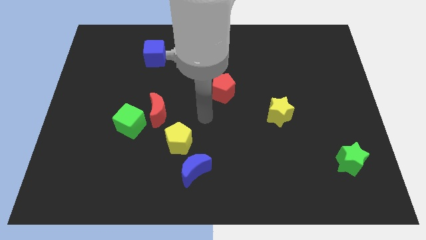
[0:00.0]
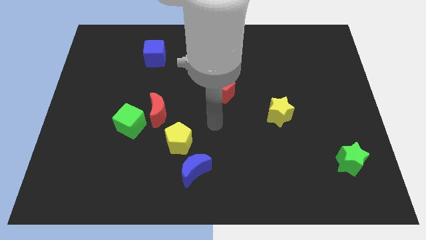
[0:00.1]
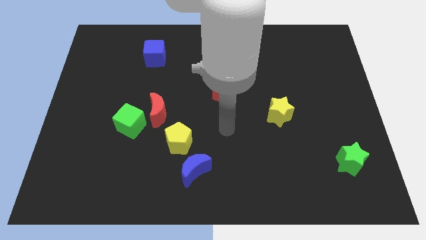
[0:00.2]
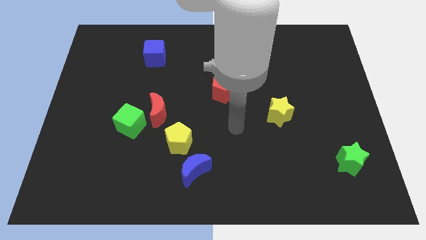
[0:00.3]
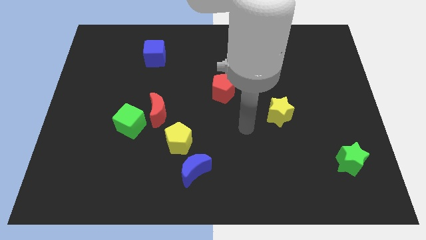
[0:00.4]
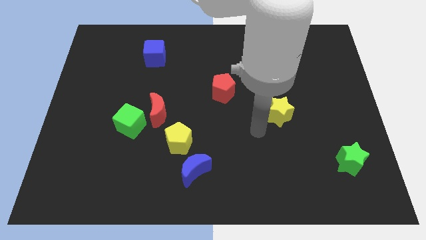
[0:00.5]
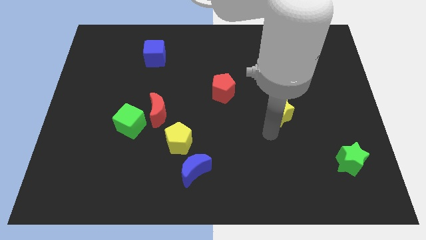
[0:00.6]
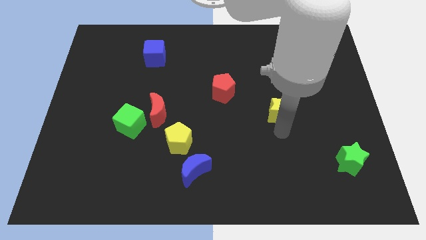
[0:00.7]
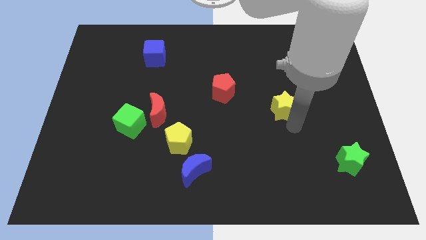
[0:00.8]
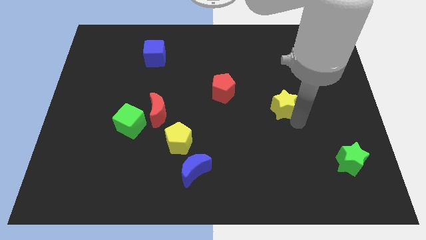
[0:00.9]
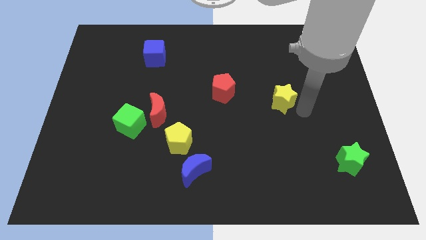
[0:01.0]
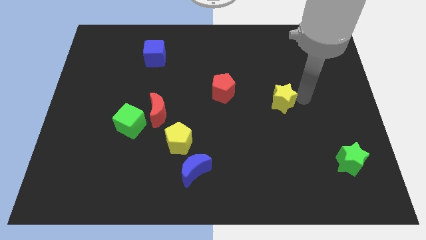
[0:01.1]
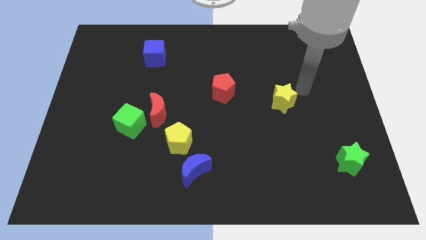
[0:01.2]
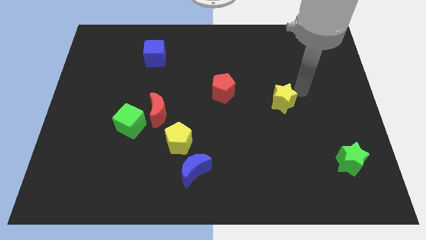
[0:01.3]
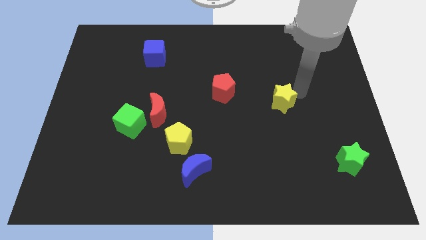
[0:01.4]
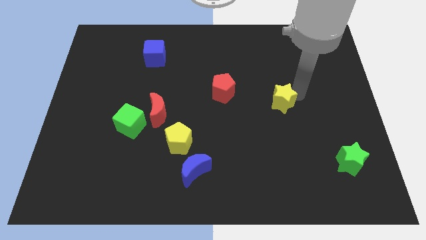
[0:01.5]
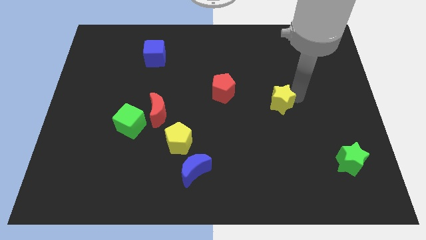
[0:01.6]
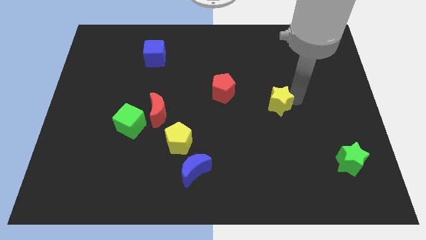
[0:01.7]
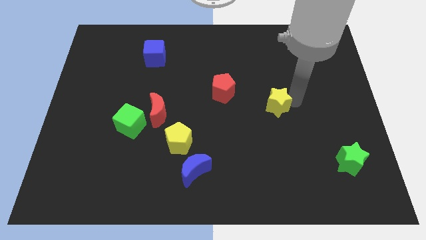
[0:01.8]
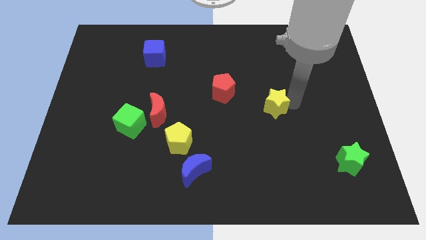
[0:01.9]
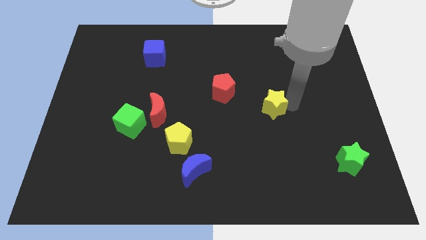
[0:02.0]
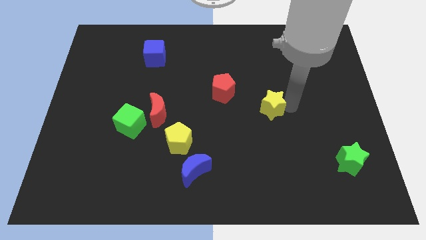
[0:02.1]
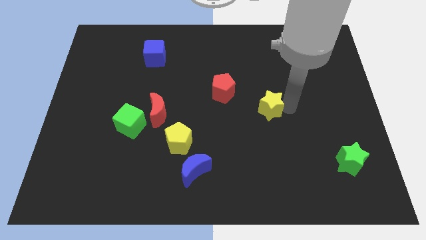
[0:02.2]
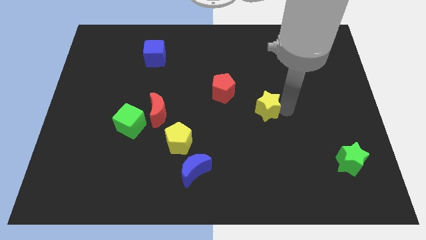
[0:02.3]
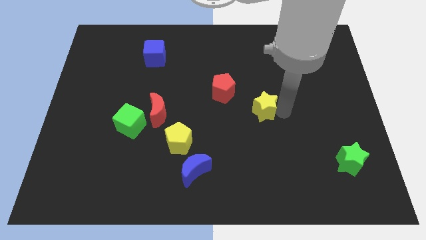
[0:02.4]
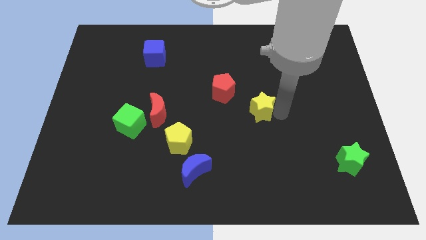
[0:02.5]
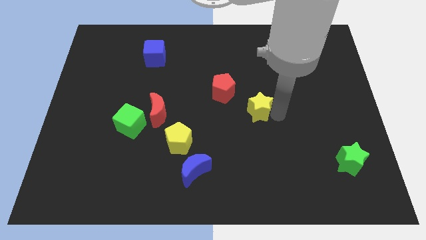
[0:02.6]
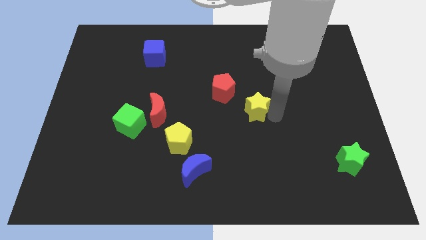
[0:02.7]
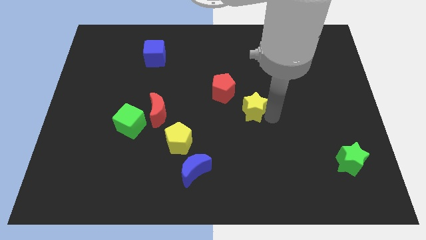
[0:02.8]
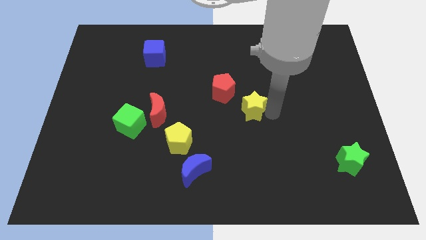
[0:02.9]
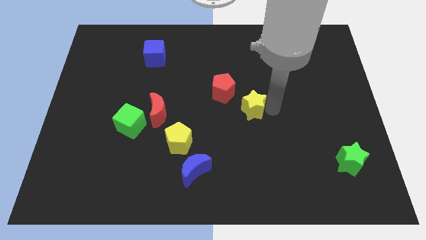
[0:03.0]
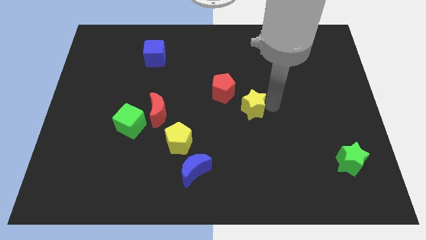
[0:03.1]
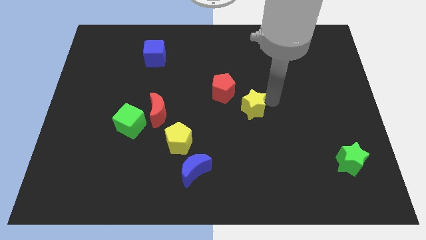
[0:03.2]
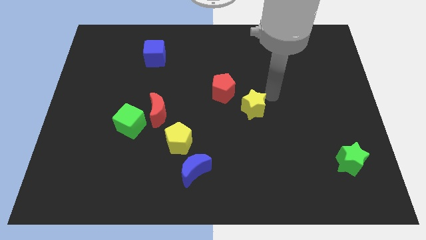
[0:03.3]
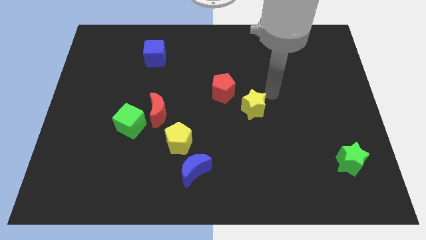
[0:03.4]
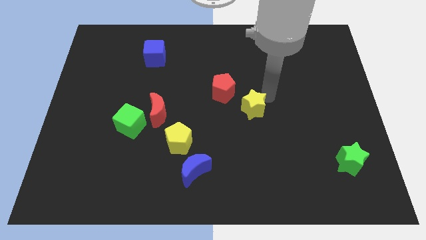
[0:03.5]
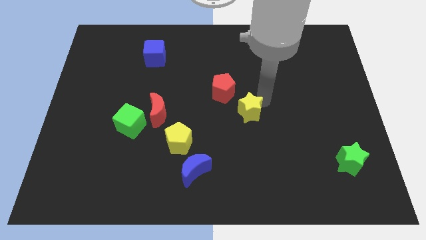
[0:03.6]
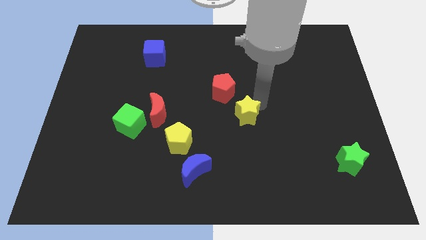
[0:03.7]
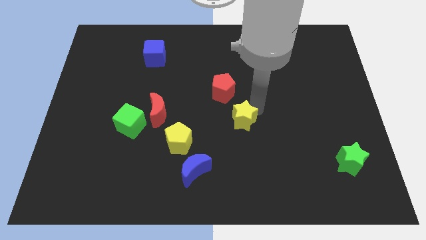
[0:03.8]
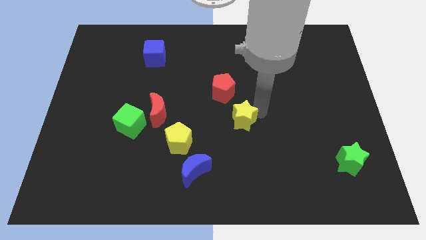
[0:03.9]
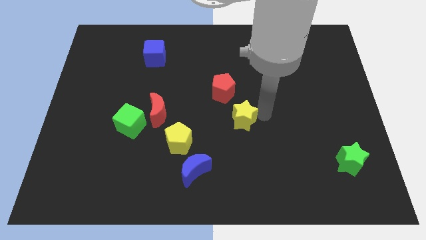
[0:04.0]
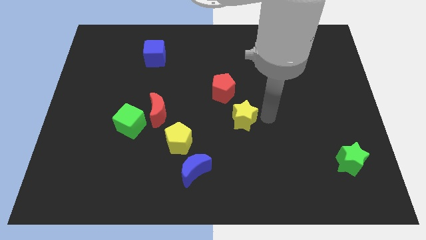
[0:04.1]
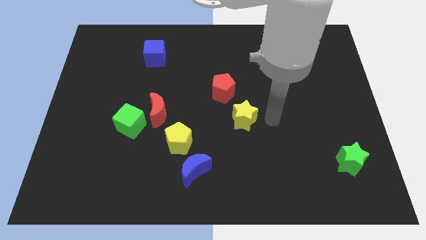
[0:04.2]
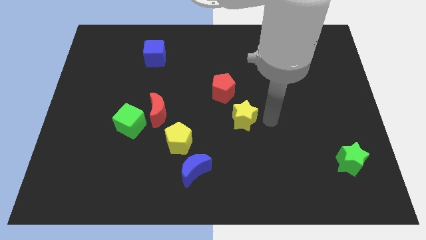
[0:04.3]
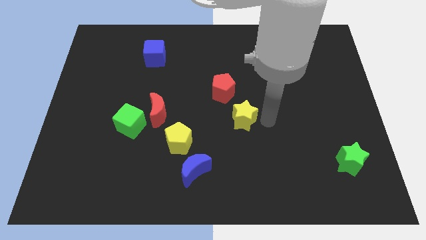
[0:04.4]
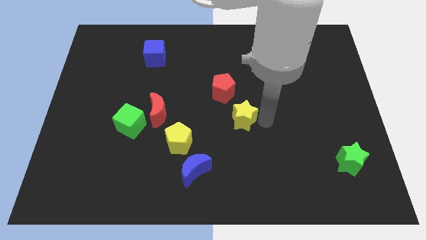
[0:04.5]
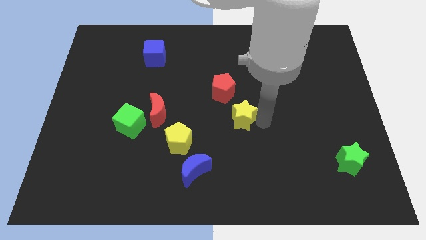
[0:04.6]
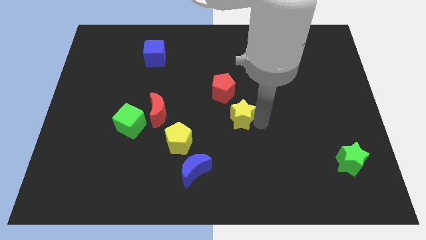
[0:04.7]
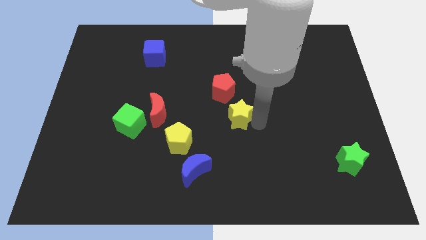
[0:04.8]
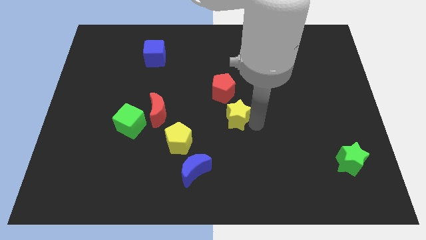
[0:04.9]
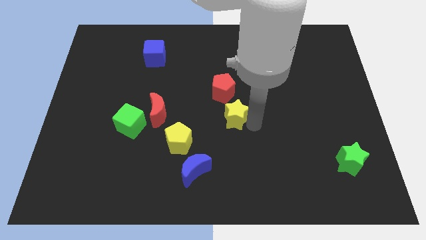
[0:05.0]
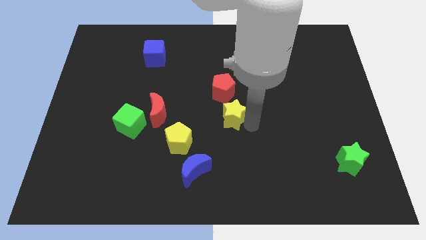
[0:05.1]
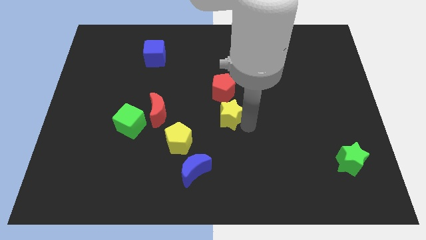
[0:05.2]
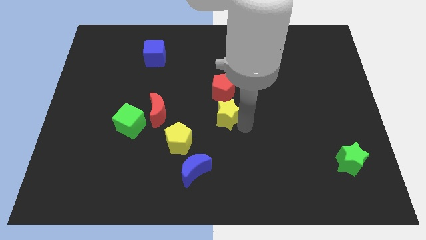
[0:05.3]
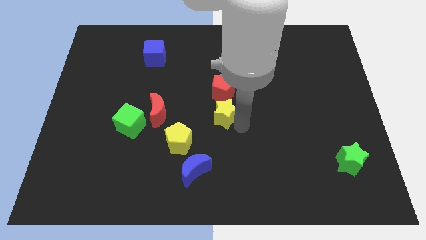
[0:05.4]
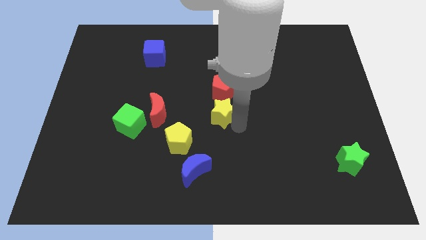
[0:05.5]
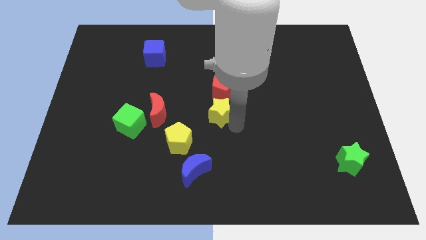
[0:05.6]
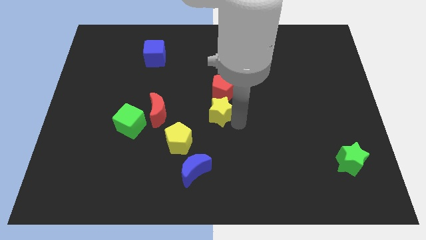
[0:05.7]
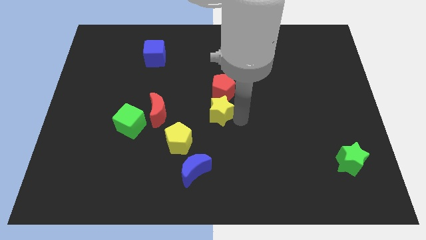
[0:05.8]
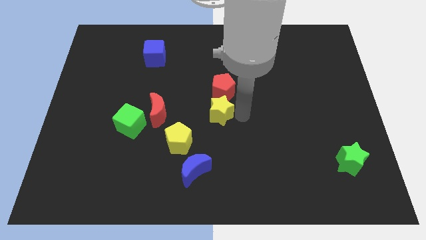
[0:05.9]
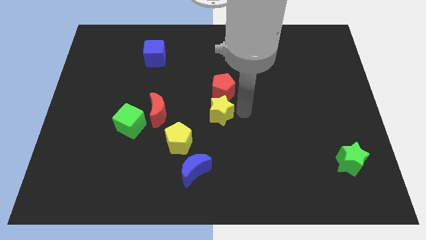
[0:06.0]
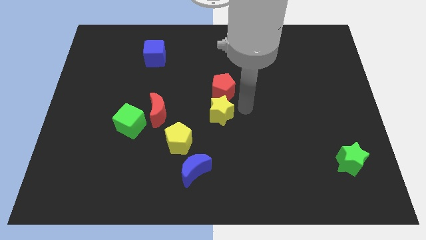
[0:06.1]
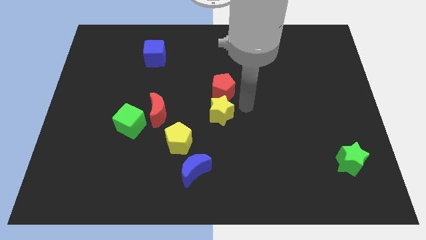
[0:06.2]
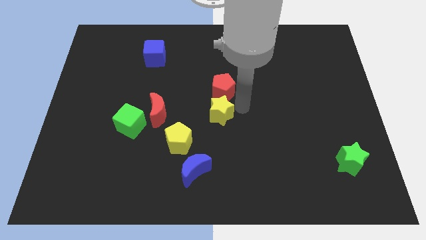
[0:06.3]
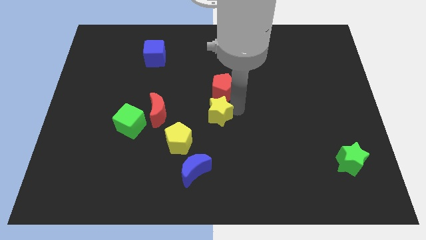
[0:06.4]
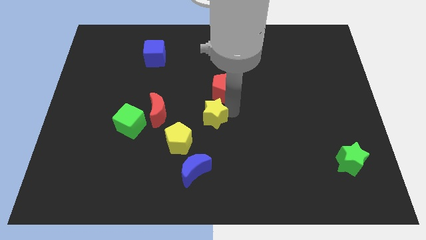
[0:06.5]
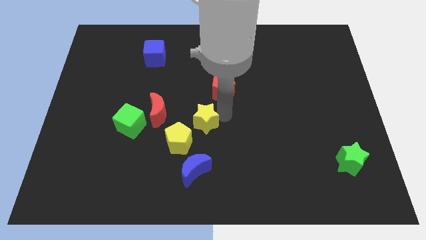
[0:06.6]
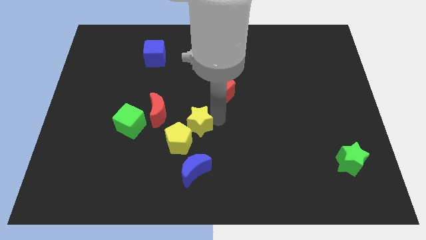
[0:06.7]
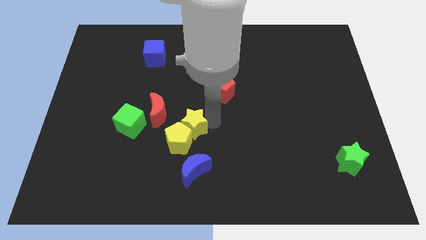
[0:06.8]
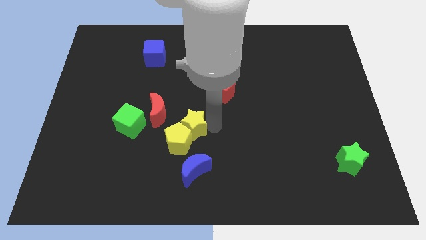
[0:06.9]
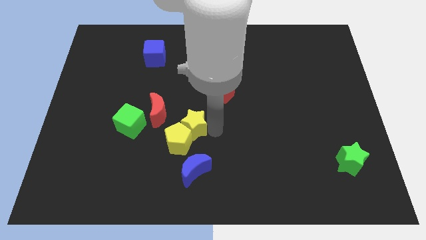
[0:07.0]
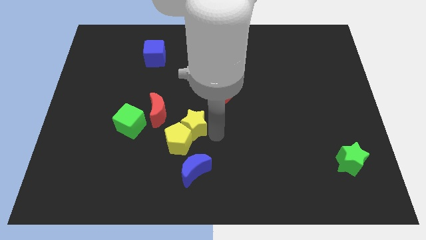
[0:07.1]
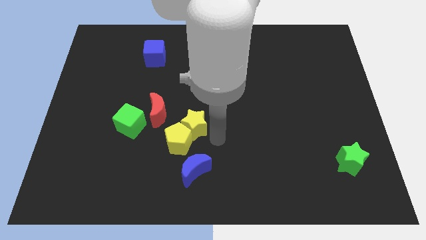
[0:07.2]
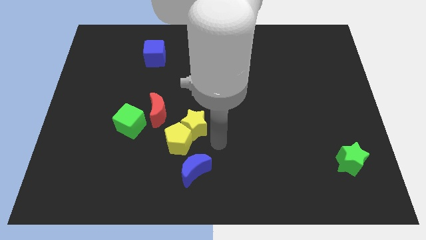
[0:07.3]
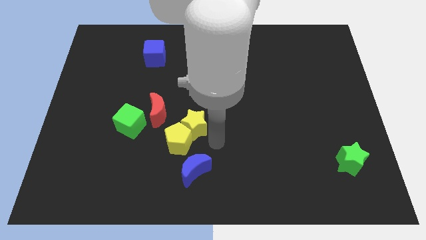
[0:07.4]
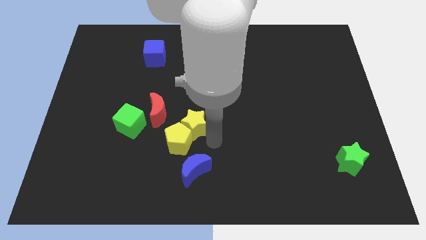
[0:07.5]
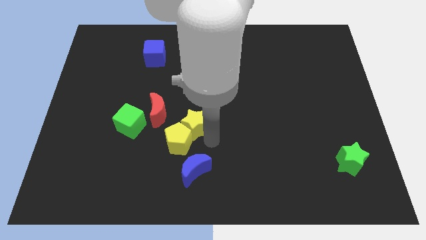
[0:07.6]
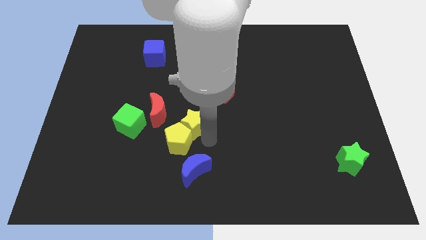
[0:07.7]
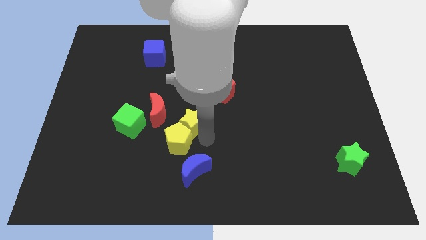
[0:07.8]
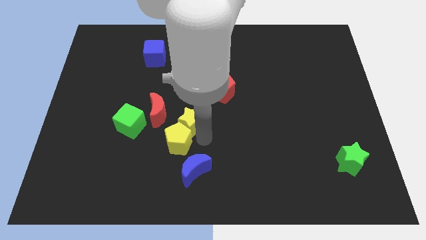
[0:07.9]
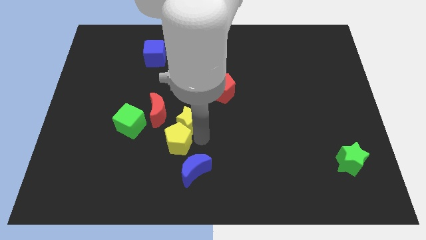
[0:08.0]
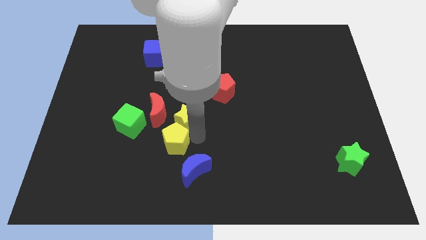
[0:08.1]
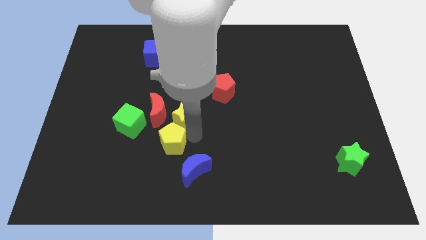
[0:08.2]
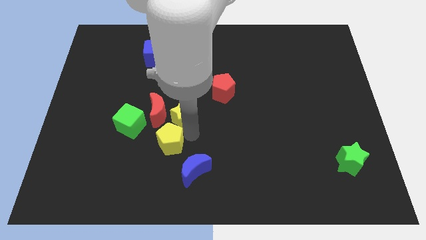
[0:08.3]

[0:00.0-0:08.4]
slide the yellow star close to the red moon
